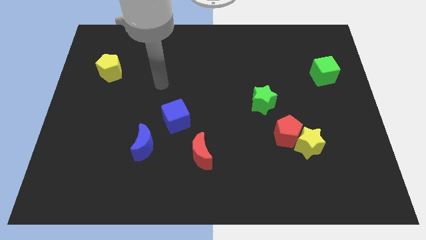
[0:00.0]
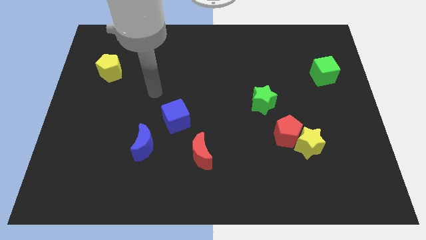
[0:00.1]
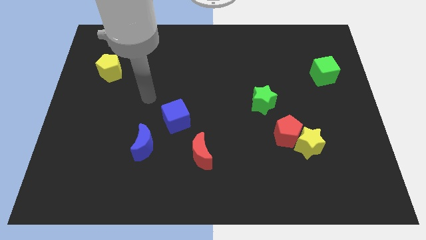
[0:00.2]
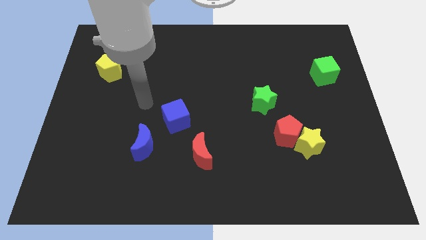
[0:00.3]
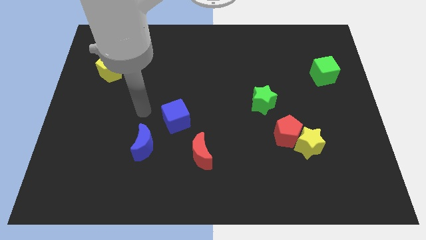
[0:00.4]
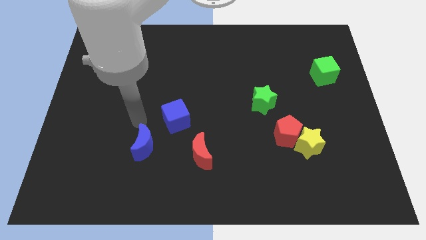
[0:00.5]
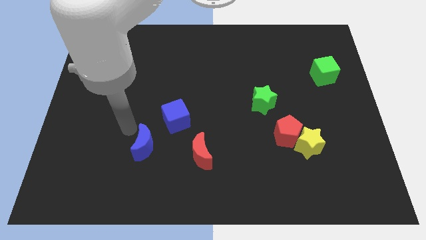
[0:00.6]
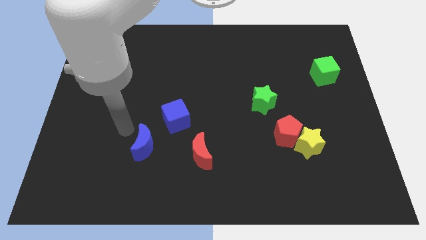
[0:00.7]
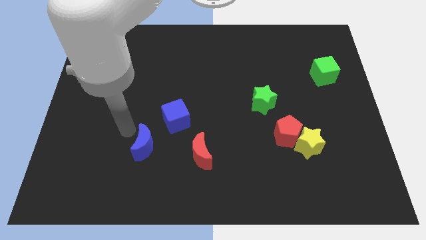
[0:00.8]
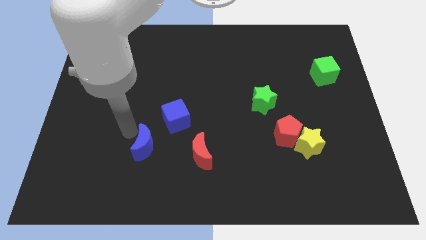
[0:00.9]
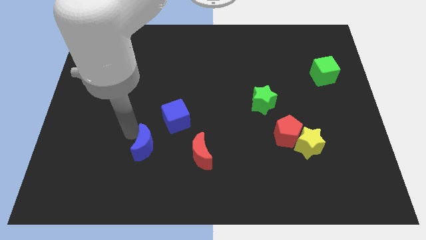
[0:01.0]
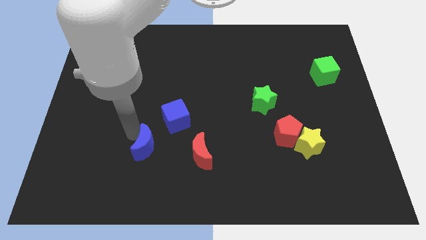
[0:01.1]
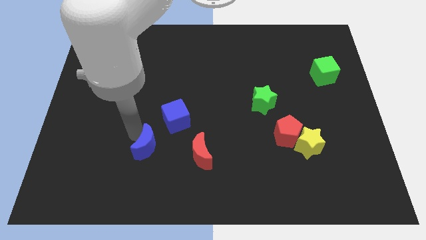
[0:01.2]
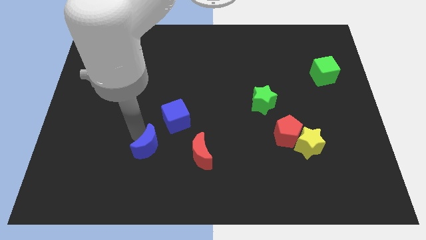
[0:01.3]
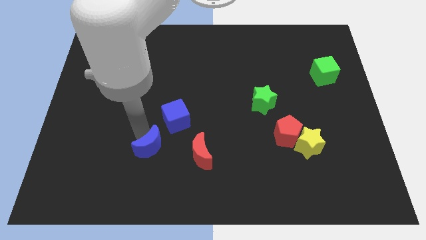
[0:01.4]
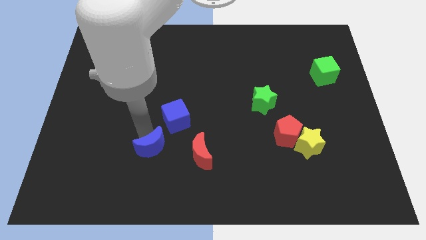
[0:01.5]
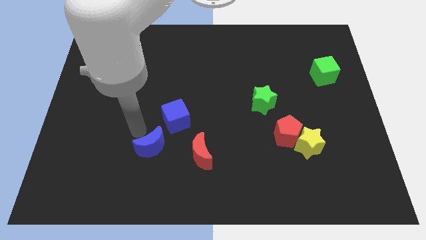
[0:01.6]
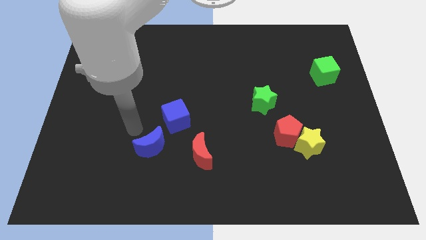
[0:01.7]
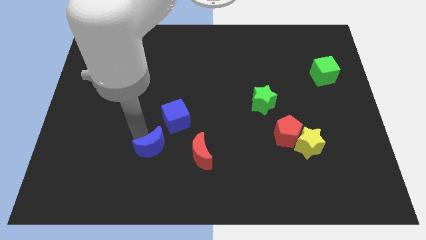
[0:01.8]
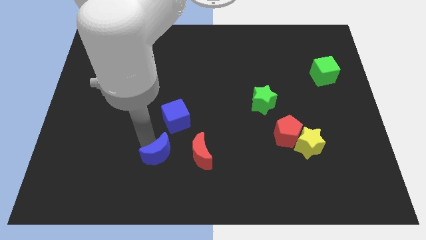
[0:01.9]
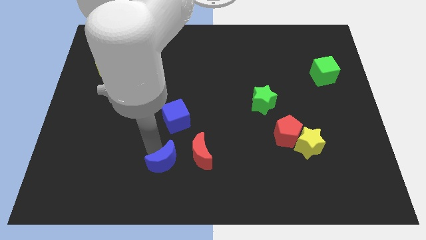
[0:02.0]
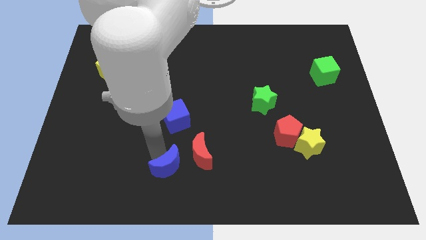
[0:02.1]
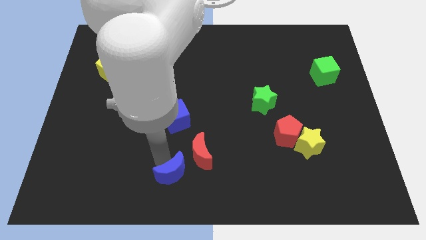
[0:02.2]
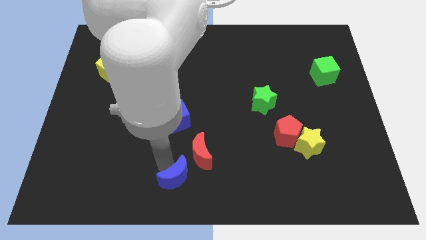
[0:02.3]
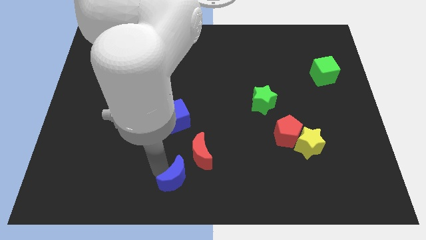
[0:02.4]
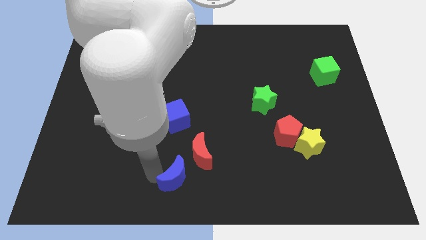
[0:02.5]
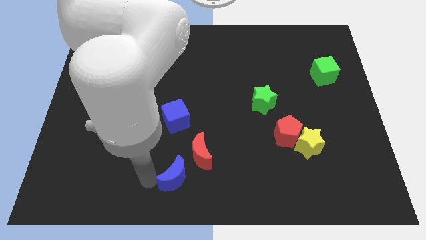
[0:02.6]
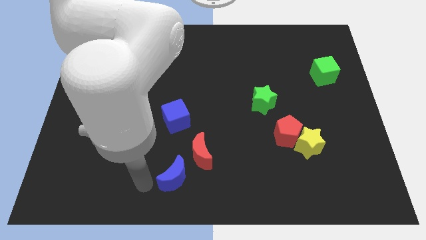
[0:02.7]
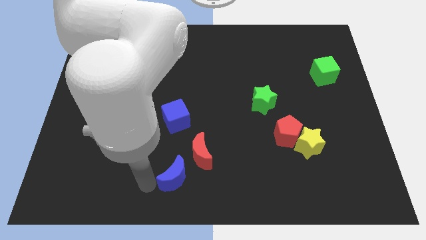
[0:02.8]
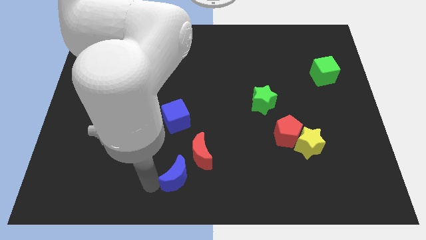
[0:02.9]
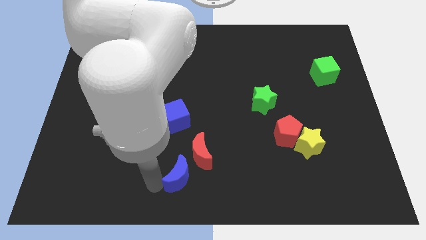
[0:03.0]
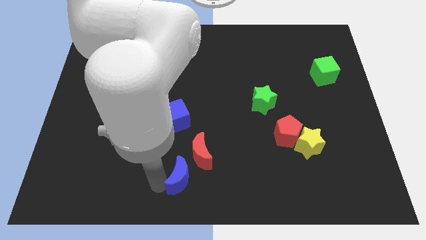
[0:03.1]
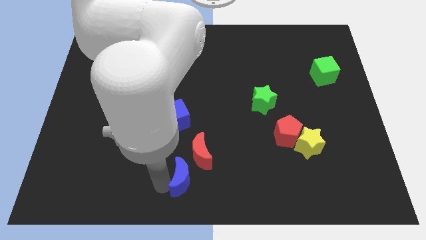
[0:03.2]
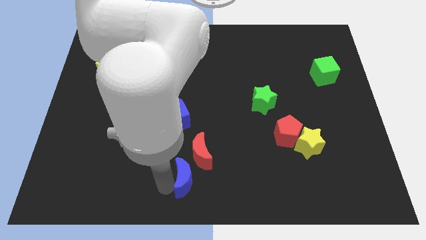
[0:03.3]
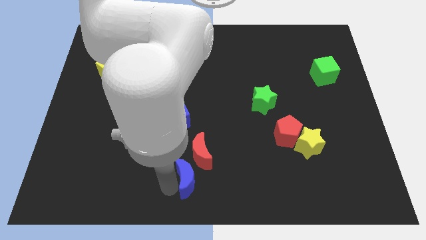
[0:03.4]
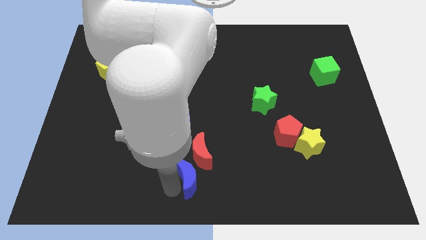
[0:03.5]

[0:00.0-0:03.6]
slightly slide the blue moon to the right

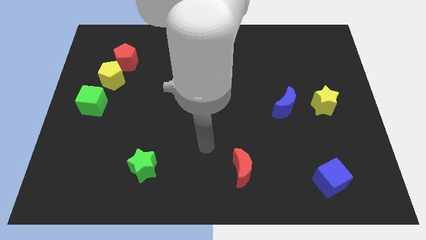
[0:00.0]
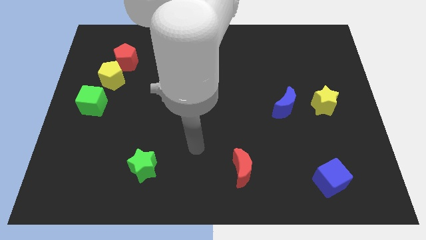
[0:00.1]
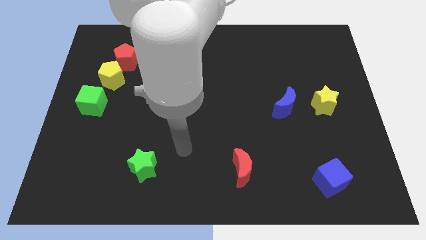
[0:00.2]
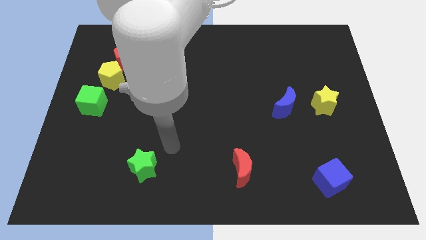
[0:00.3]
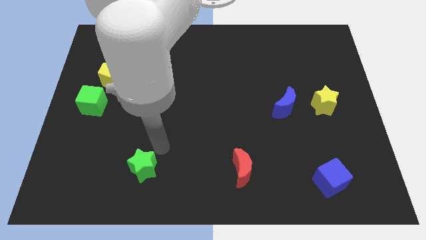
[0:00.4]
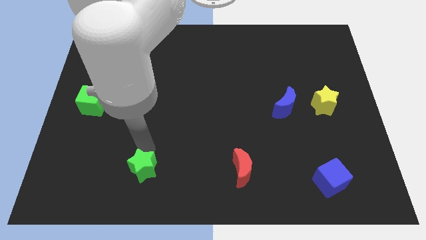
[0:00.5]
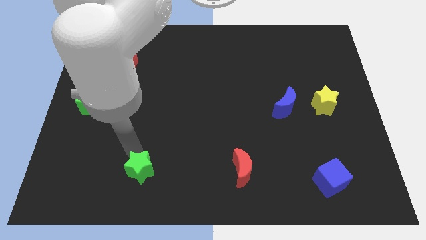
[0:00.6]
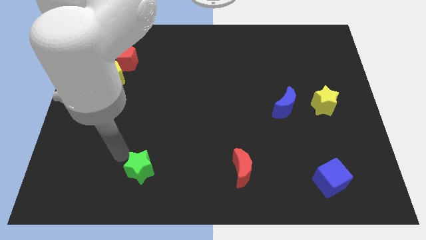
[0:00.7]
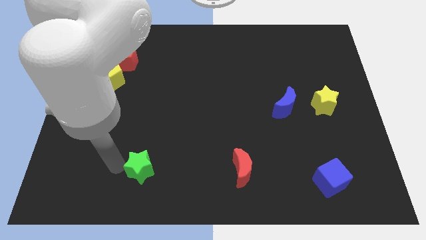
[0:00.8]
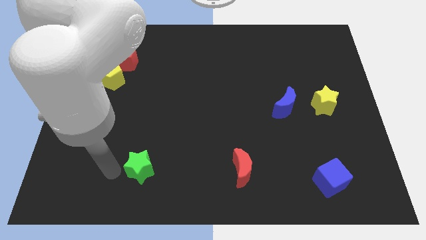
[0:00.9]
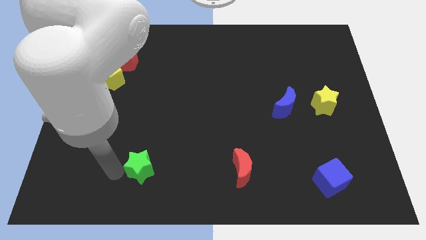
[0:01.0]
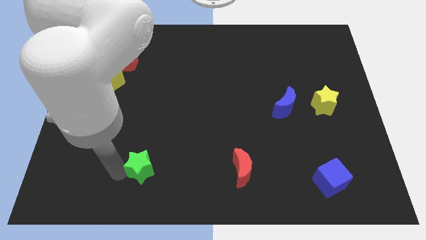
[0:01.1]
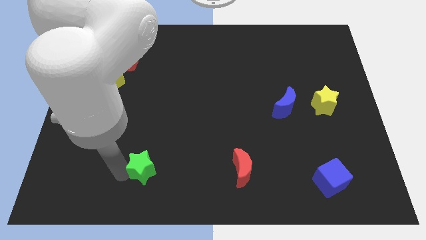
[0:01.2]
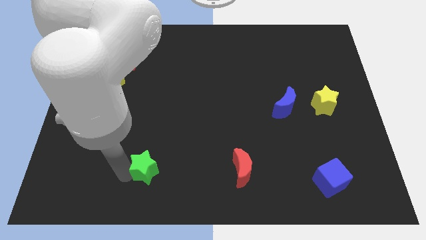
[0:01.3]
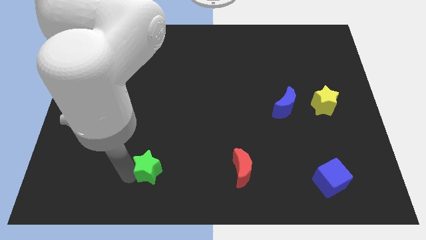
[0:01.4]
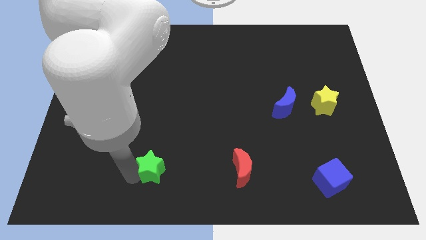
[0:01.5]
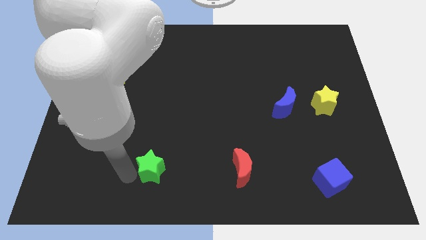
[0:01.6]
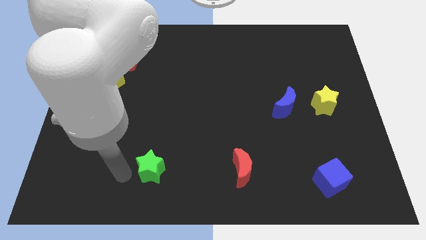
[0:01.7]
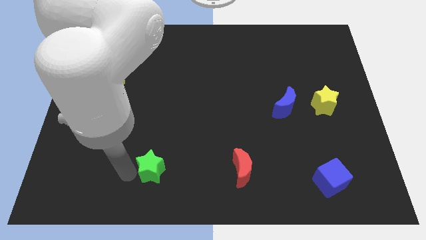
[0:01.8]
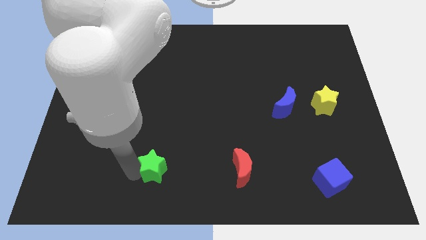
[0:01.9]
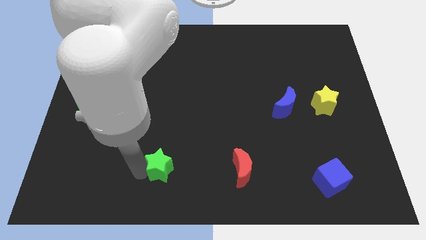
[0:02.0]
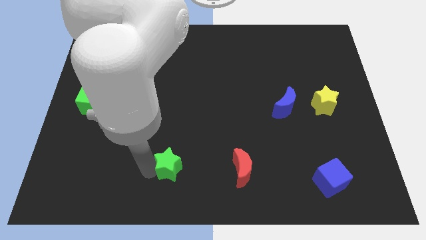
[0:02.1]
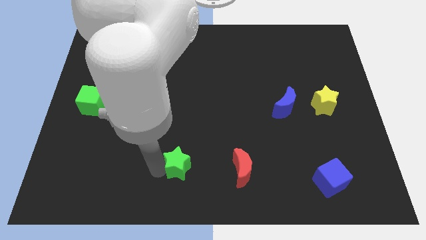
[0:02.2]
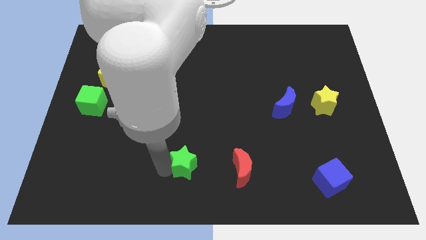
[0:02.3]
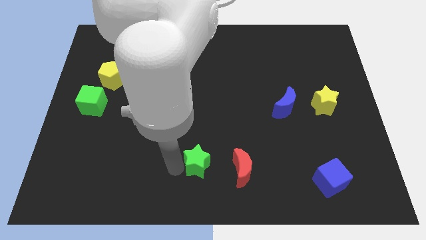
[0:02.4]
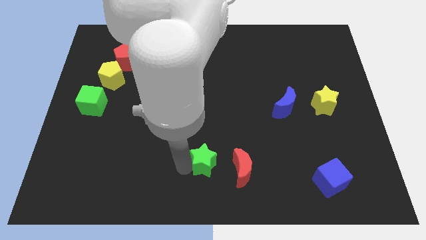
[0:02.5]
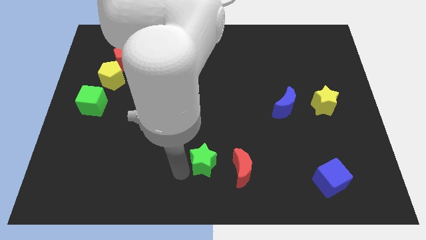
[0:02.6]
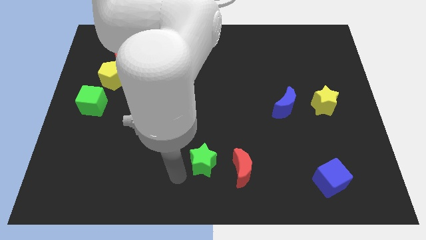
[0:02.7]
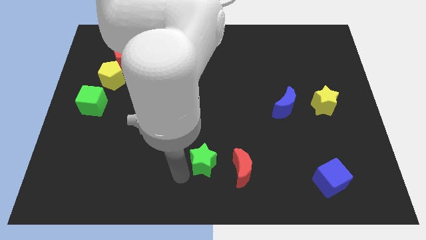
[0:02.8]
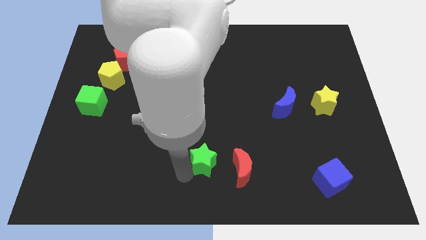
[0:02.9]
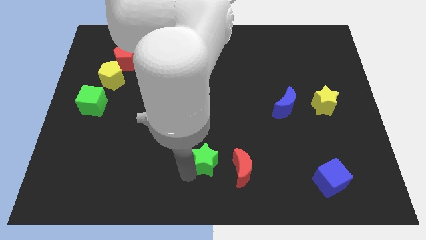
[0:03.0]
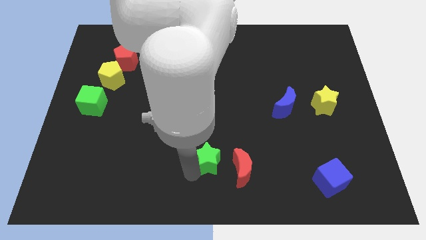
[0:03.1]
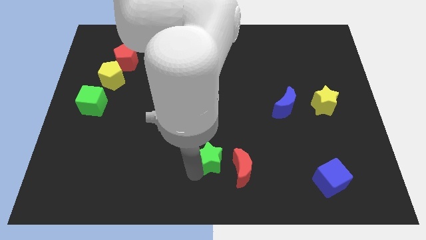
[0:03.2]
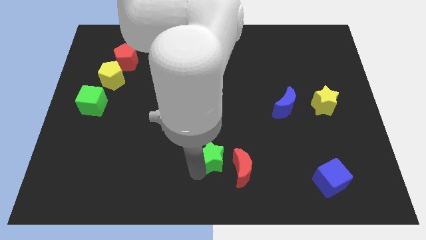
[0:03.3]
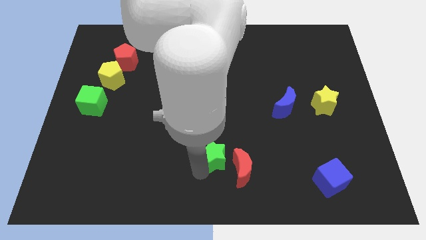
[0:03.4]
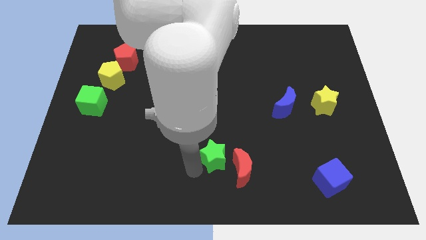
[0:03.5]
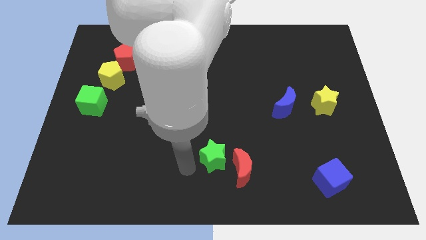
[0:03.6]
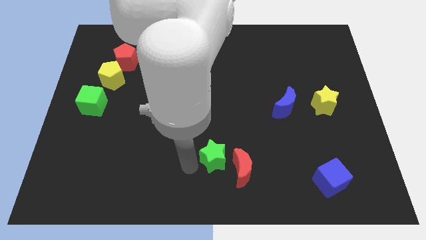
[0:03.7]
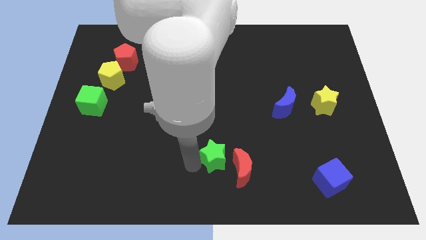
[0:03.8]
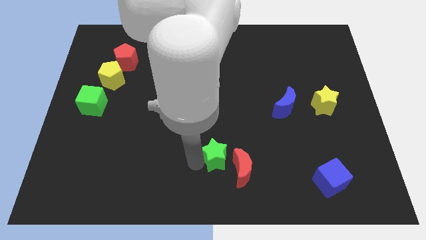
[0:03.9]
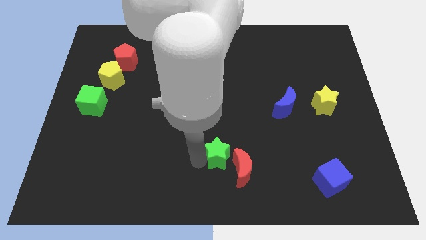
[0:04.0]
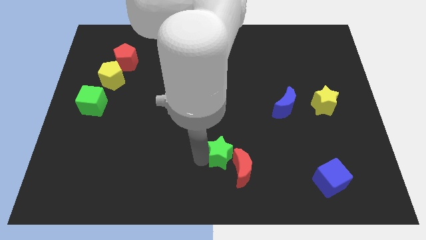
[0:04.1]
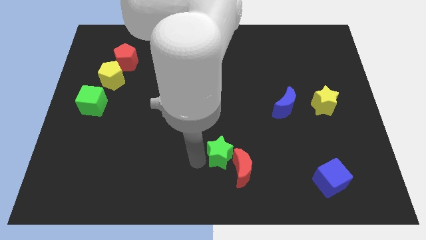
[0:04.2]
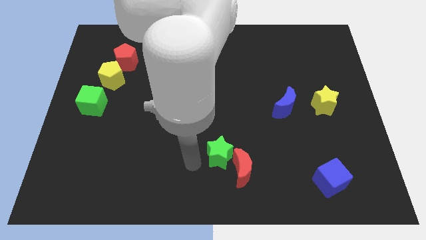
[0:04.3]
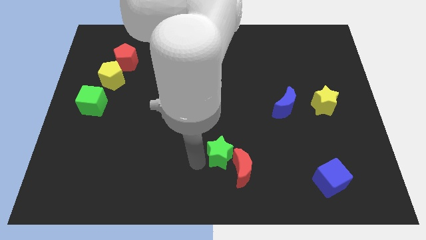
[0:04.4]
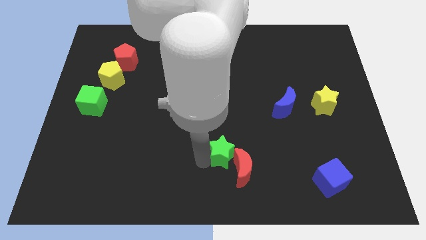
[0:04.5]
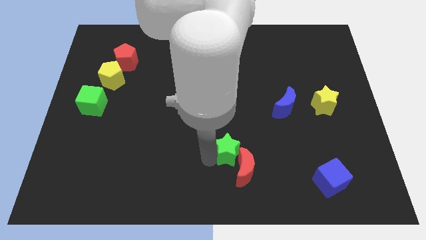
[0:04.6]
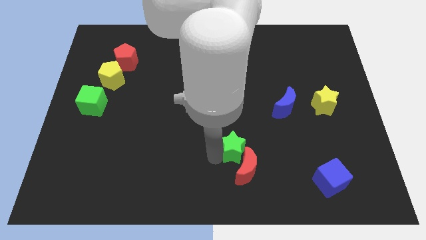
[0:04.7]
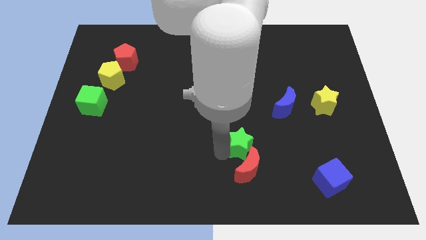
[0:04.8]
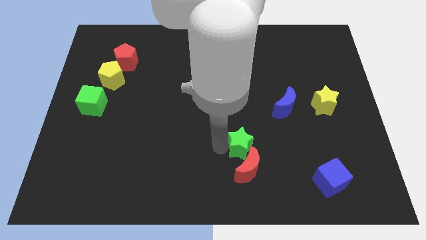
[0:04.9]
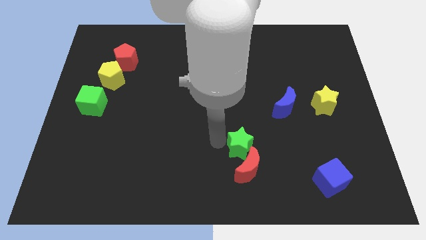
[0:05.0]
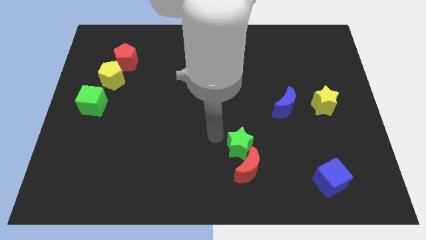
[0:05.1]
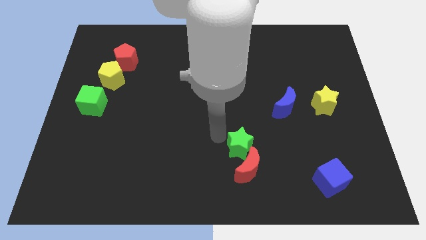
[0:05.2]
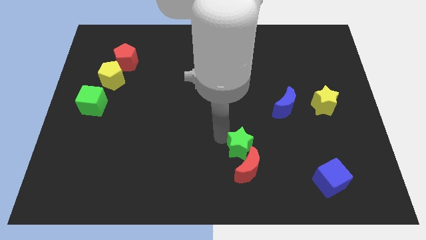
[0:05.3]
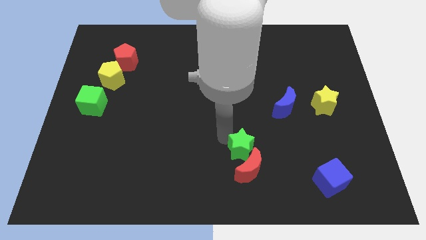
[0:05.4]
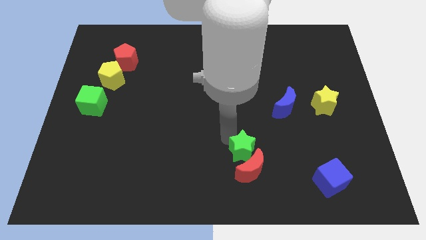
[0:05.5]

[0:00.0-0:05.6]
move the green star right
